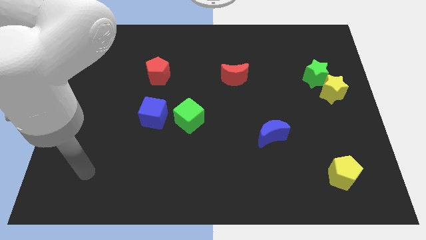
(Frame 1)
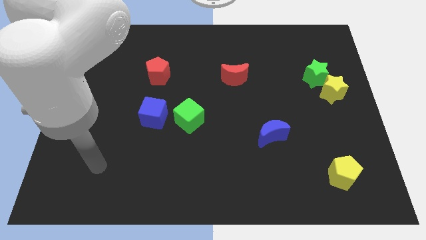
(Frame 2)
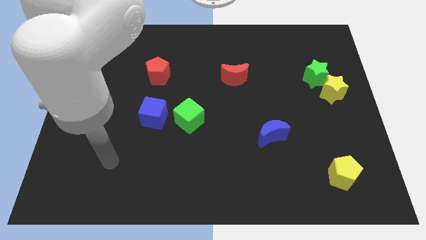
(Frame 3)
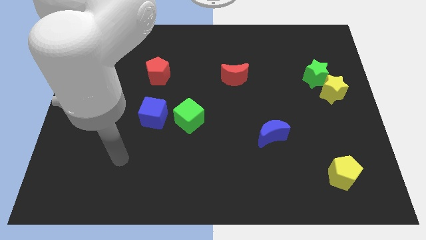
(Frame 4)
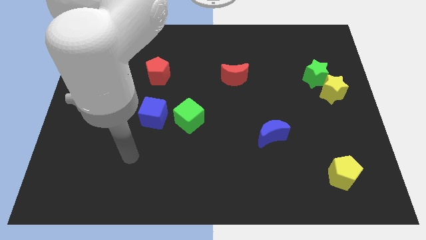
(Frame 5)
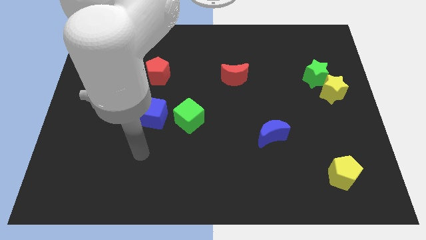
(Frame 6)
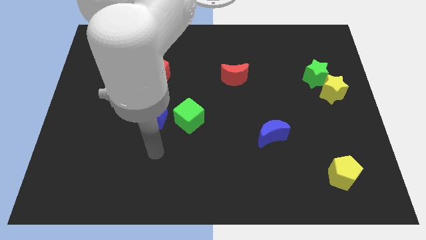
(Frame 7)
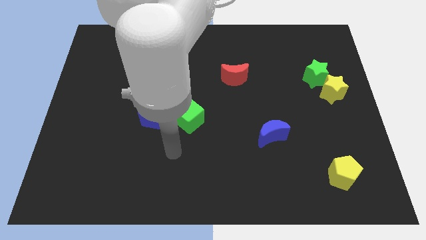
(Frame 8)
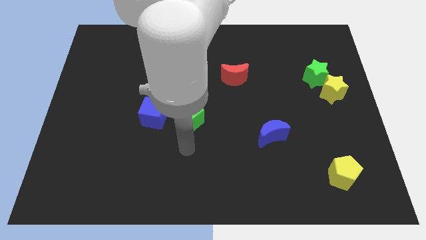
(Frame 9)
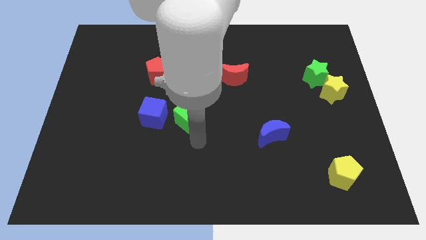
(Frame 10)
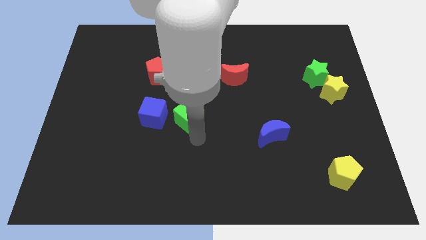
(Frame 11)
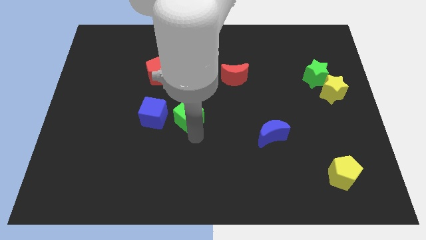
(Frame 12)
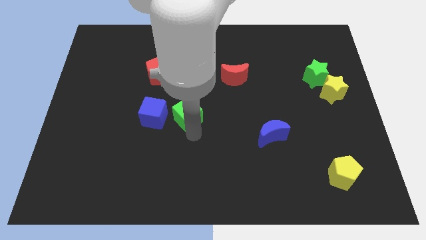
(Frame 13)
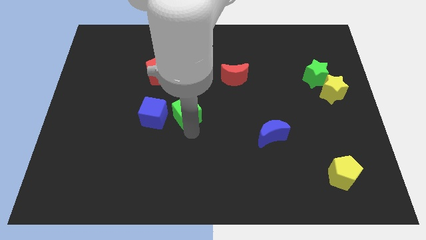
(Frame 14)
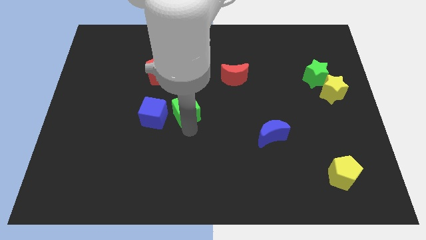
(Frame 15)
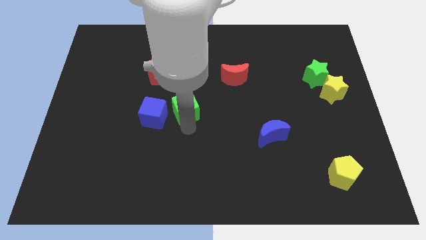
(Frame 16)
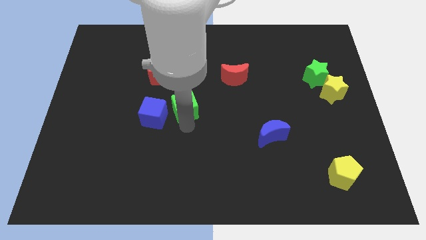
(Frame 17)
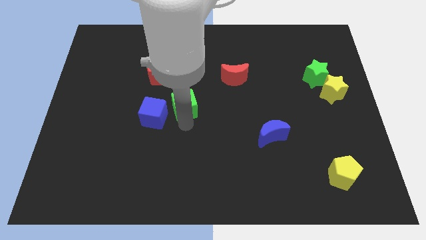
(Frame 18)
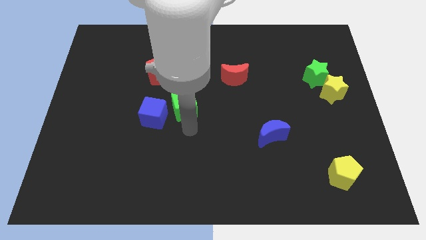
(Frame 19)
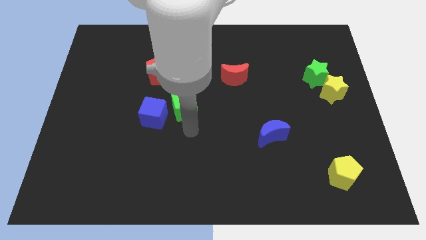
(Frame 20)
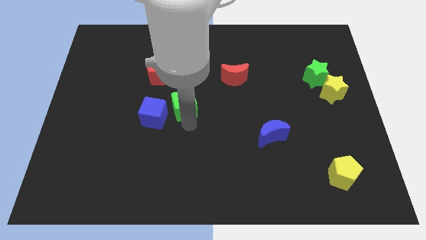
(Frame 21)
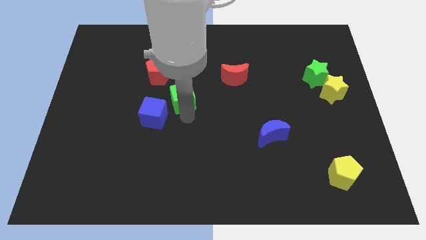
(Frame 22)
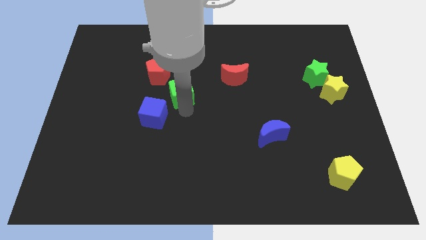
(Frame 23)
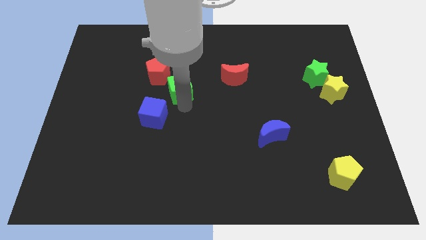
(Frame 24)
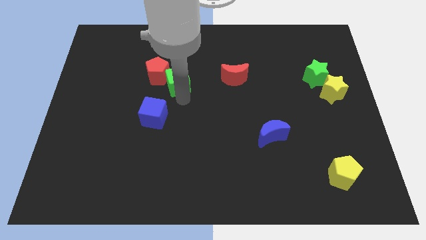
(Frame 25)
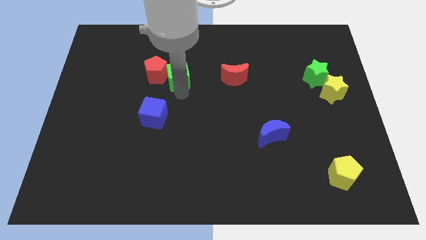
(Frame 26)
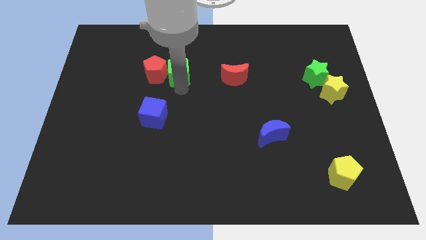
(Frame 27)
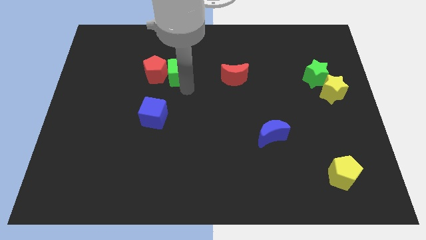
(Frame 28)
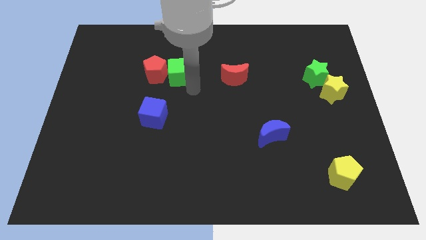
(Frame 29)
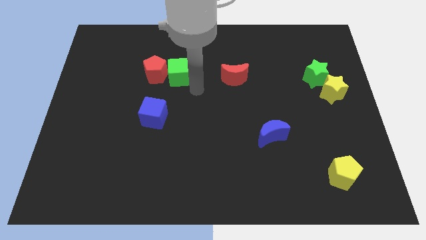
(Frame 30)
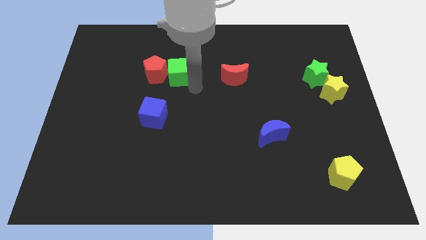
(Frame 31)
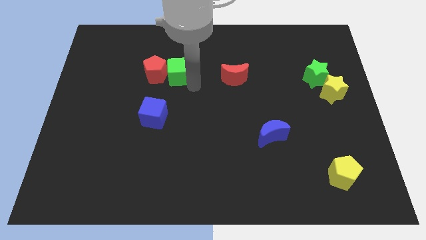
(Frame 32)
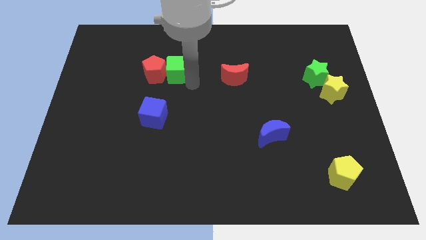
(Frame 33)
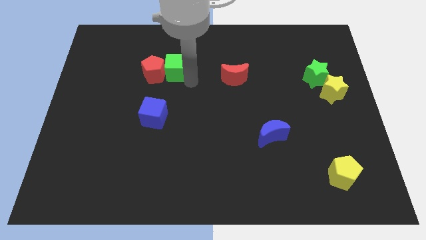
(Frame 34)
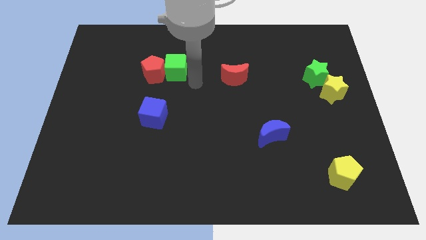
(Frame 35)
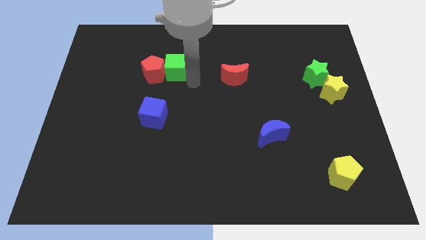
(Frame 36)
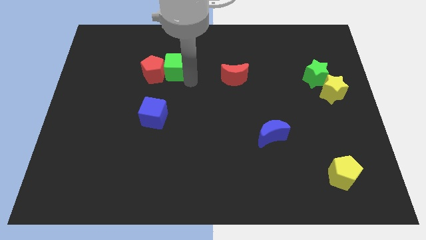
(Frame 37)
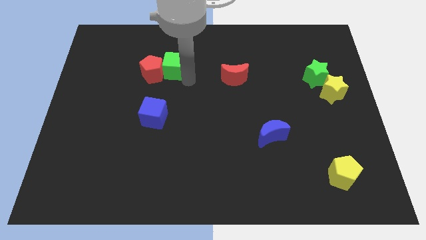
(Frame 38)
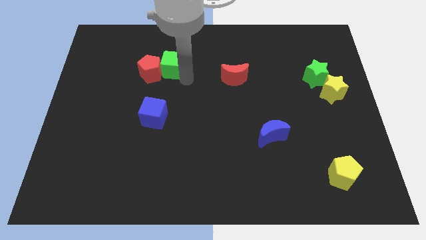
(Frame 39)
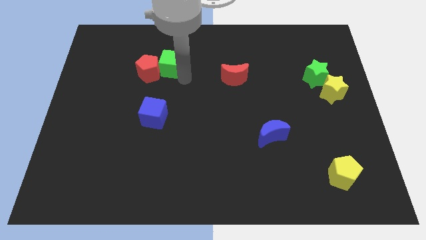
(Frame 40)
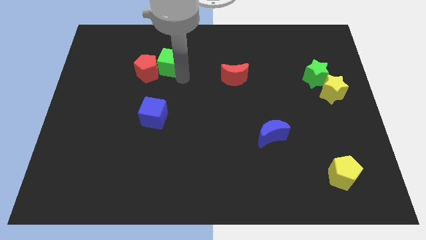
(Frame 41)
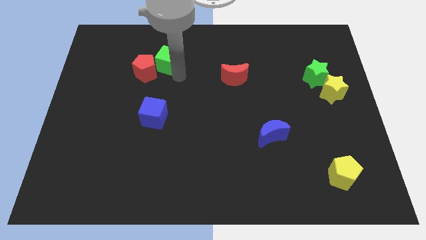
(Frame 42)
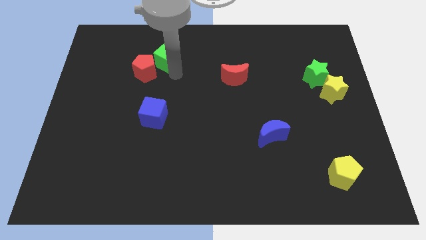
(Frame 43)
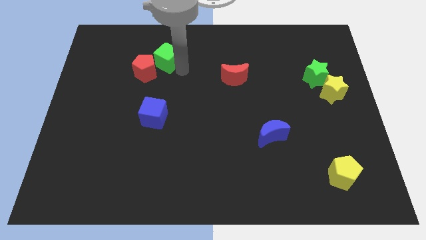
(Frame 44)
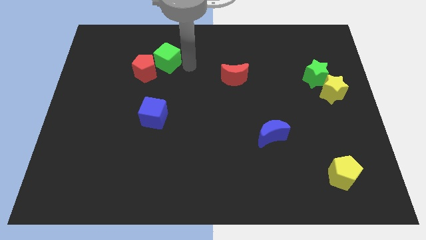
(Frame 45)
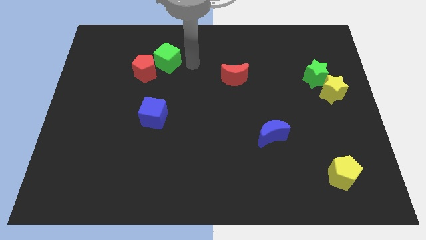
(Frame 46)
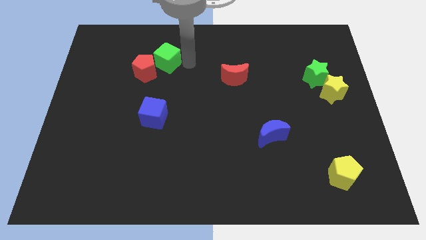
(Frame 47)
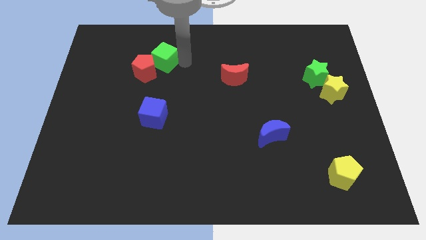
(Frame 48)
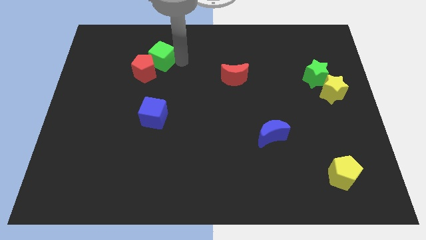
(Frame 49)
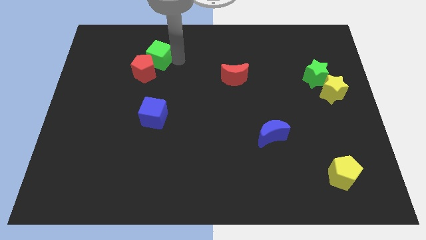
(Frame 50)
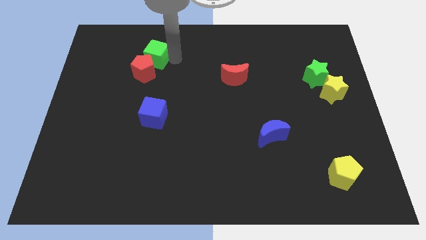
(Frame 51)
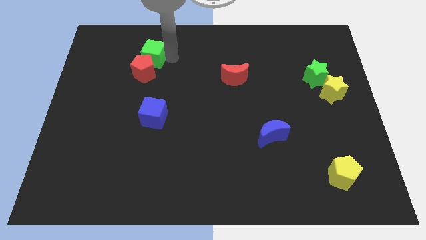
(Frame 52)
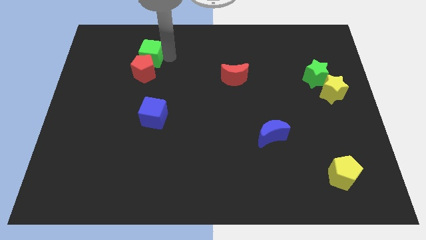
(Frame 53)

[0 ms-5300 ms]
push the green cube diagonally up and to the left of the red pentagon

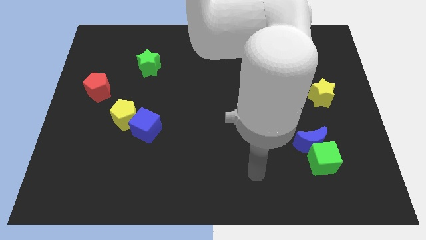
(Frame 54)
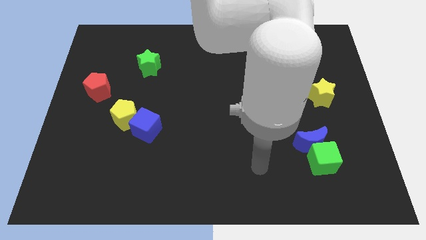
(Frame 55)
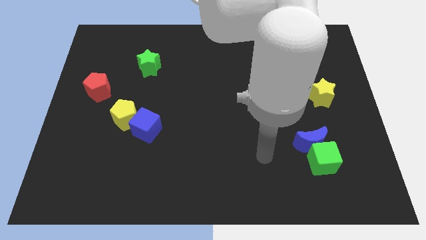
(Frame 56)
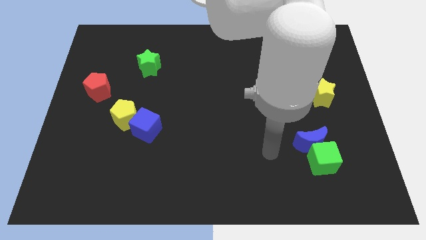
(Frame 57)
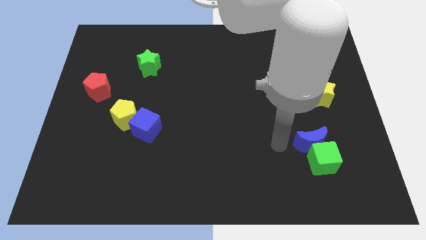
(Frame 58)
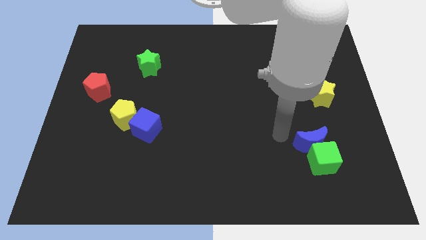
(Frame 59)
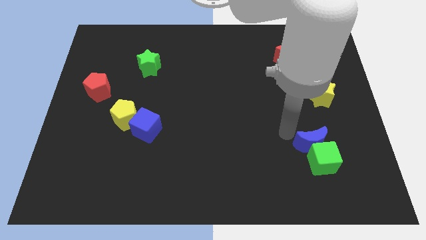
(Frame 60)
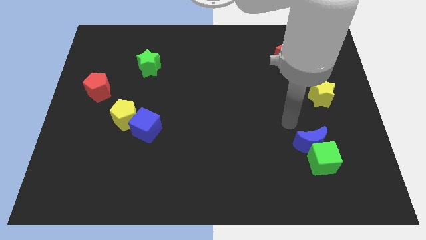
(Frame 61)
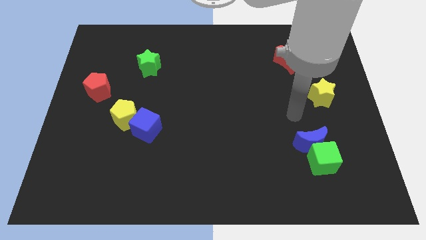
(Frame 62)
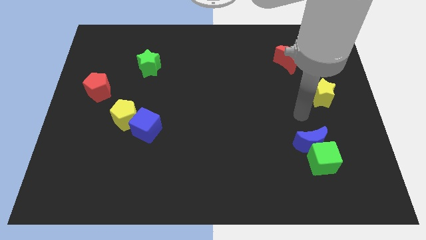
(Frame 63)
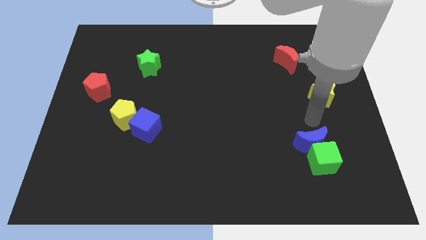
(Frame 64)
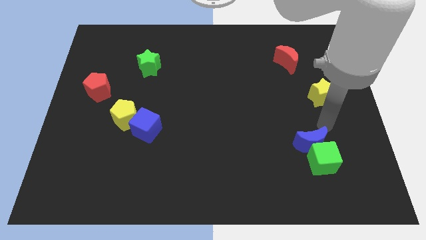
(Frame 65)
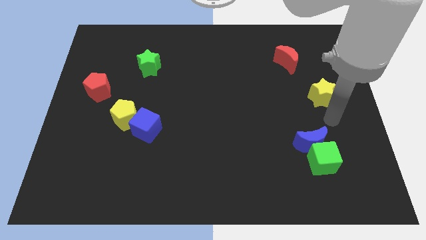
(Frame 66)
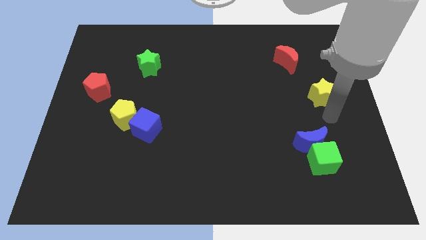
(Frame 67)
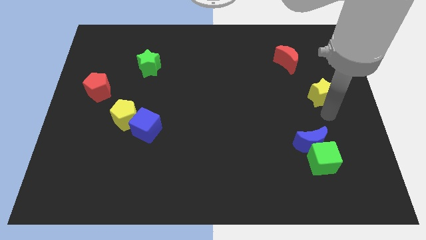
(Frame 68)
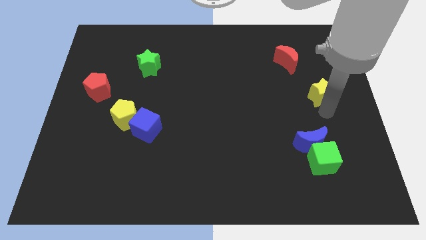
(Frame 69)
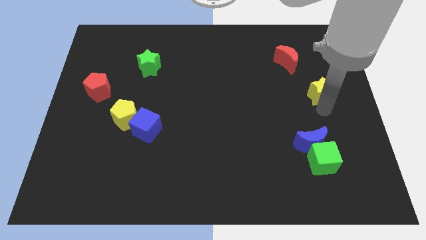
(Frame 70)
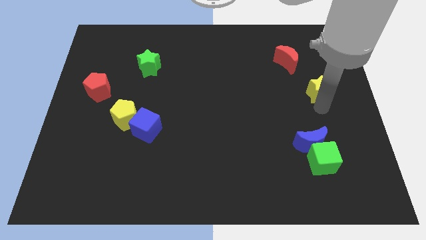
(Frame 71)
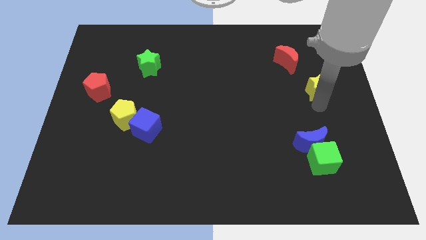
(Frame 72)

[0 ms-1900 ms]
move the yellow star diagonally down and to the right of the red moon
